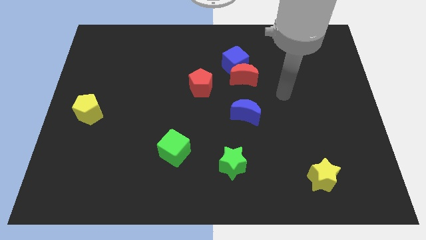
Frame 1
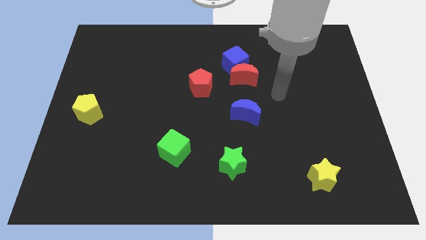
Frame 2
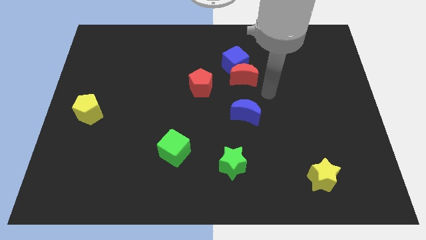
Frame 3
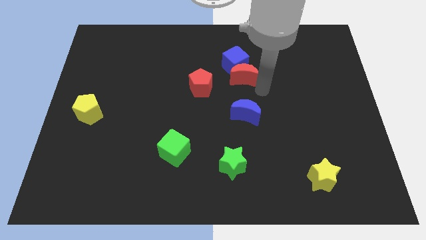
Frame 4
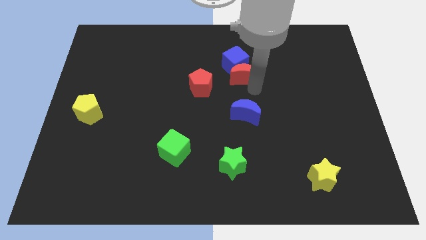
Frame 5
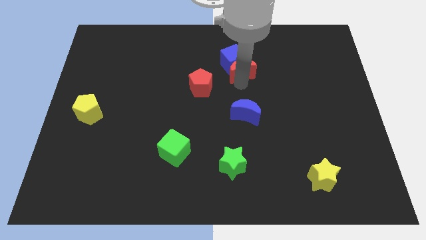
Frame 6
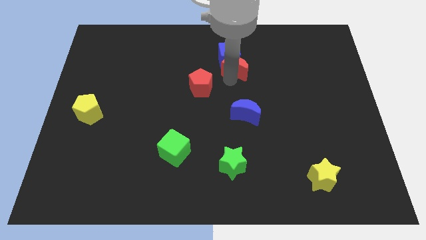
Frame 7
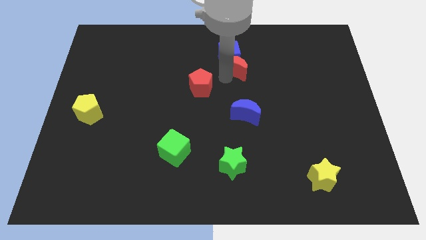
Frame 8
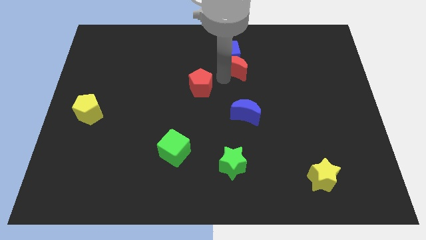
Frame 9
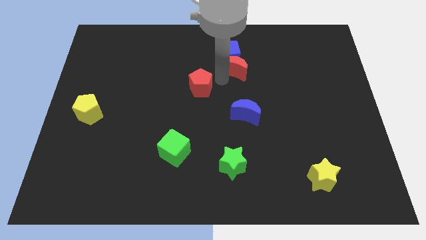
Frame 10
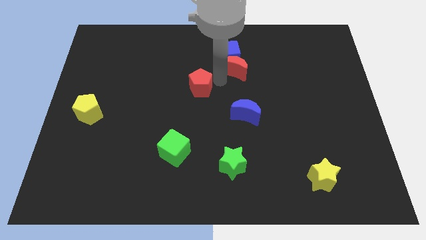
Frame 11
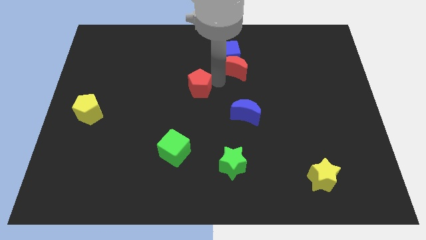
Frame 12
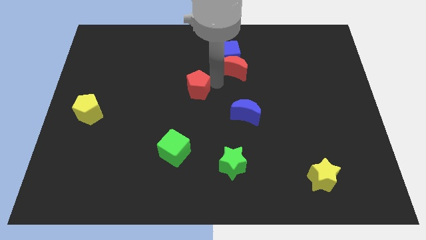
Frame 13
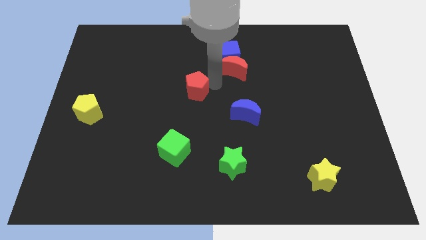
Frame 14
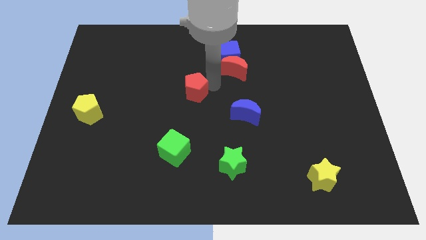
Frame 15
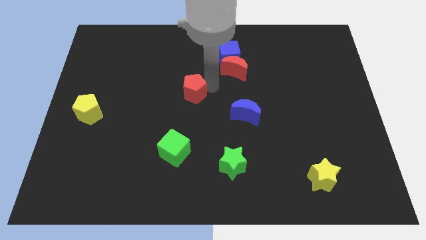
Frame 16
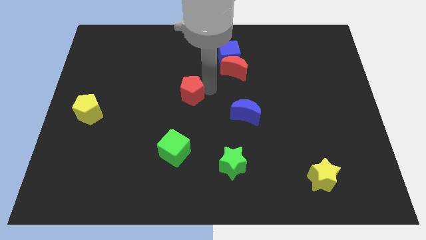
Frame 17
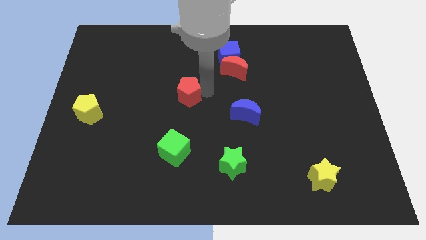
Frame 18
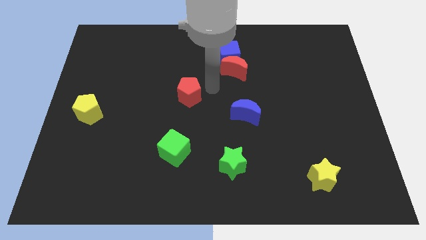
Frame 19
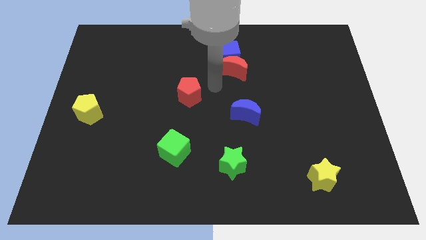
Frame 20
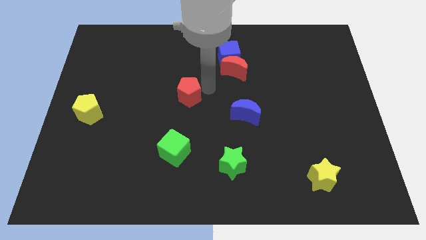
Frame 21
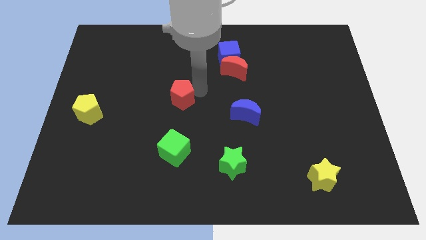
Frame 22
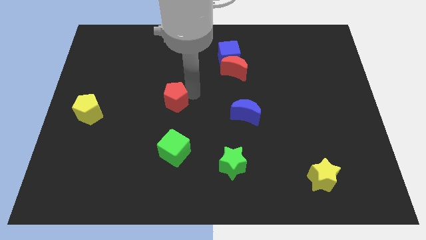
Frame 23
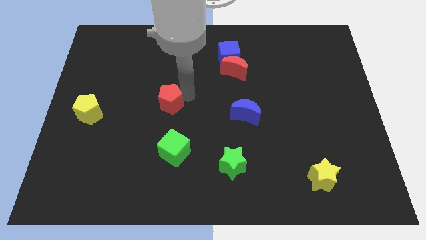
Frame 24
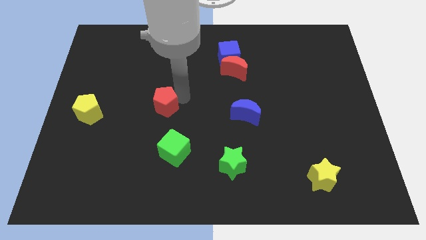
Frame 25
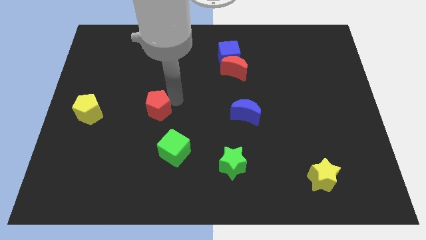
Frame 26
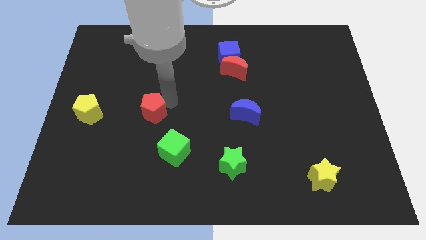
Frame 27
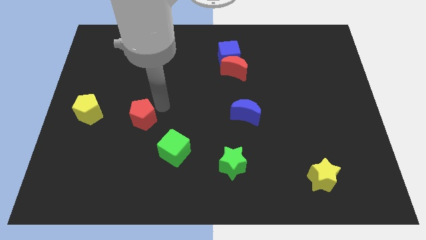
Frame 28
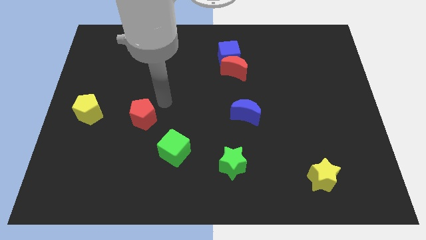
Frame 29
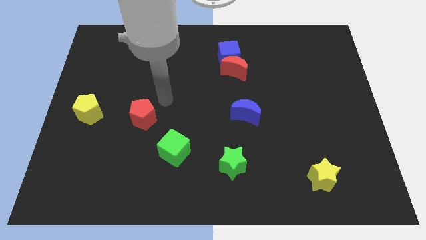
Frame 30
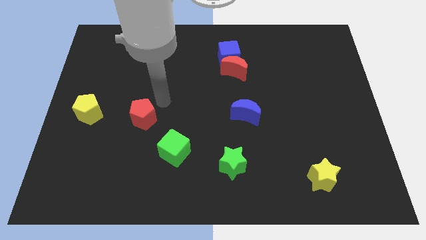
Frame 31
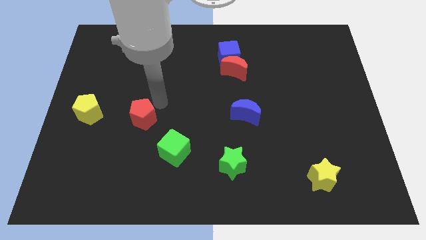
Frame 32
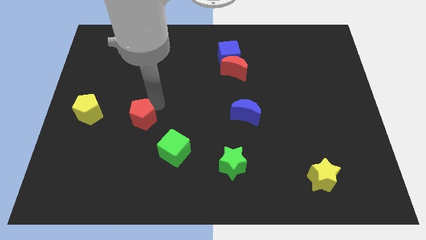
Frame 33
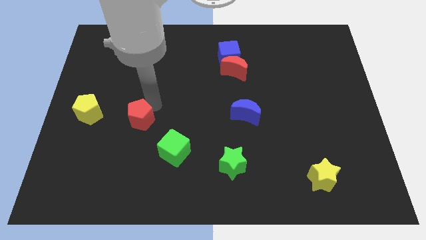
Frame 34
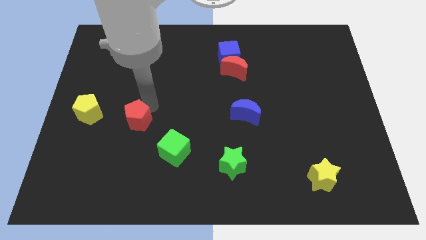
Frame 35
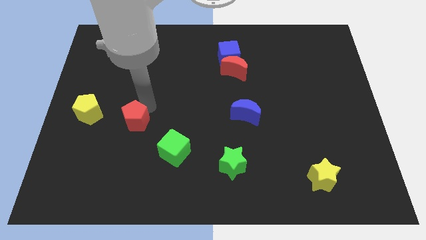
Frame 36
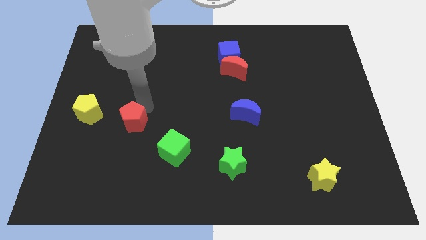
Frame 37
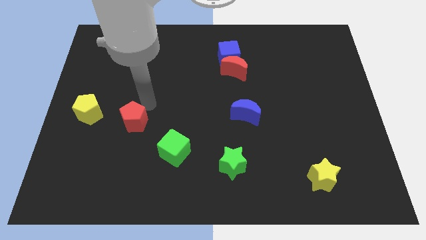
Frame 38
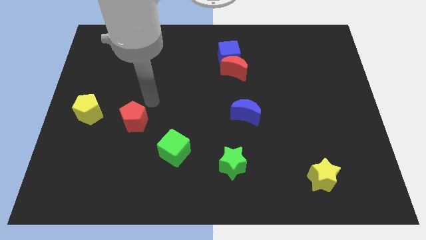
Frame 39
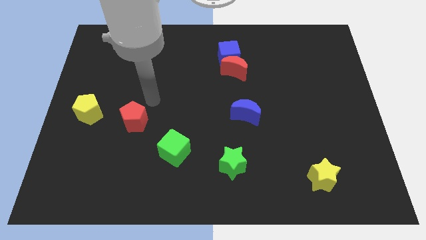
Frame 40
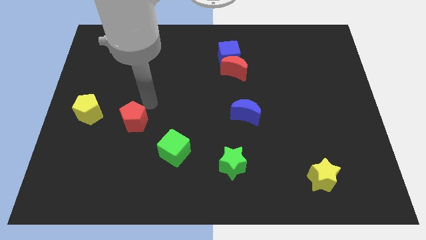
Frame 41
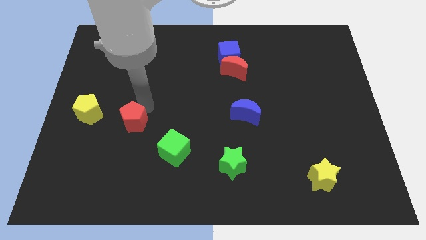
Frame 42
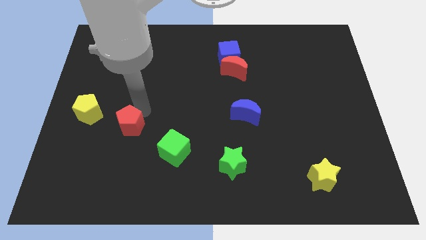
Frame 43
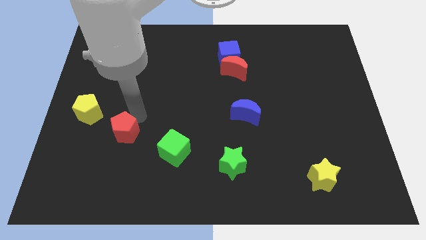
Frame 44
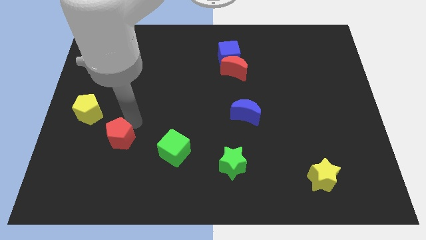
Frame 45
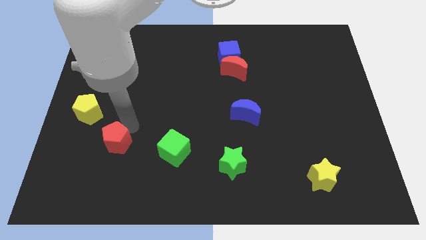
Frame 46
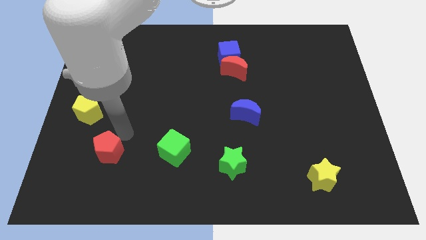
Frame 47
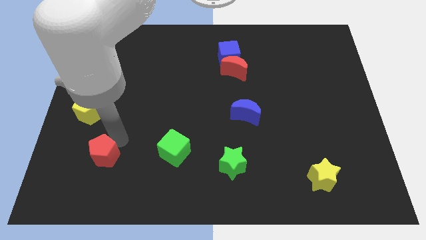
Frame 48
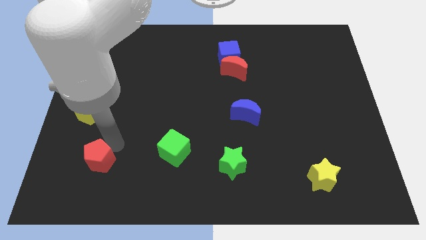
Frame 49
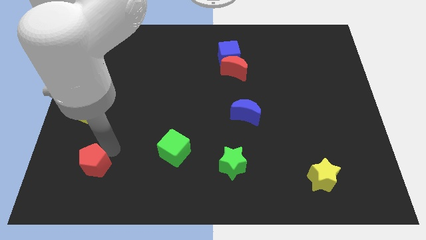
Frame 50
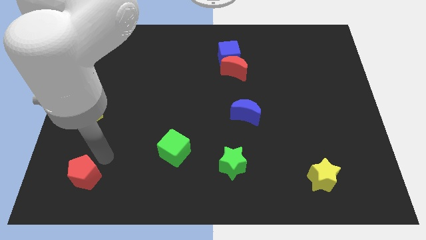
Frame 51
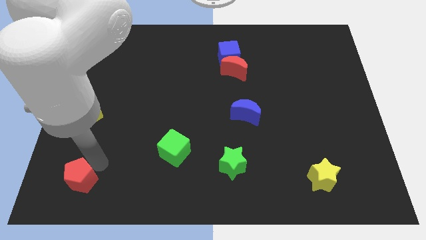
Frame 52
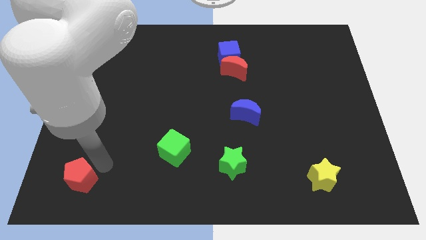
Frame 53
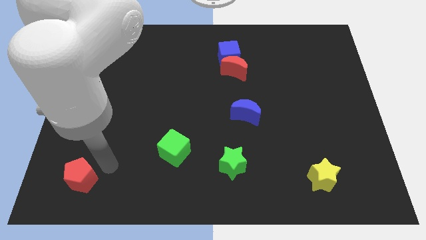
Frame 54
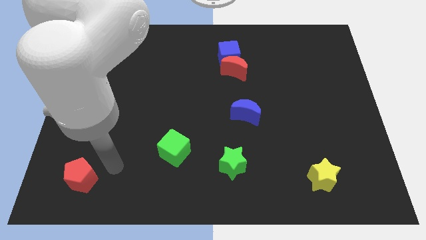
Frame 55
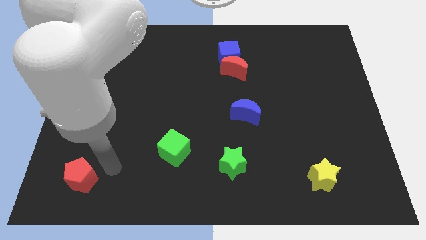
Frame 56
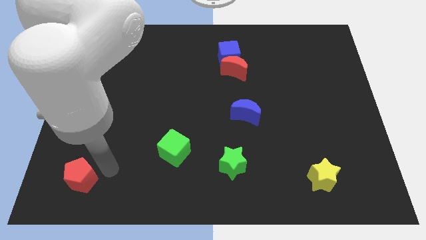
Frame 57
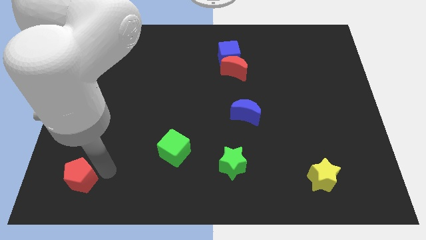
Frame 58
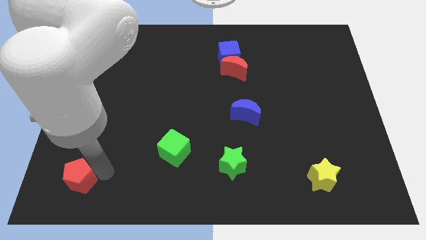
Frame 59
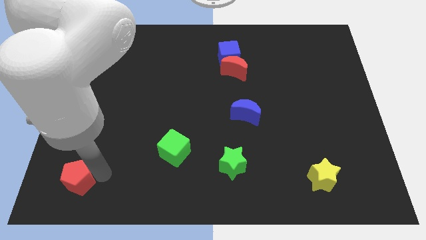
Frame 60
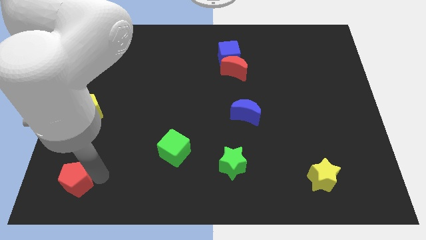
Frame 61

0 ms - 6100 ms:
put the red pentagon to the lower left corner
